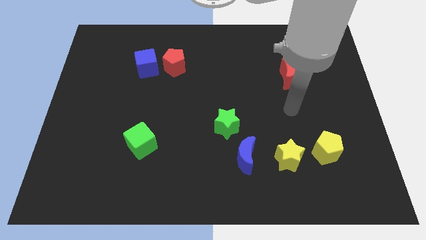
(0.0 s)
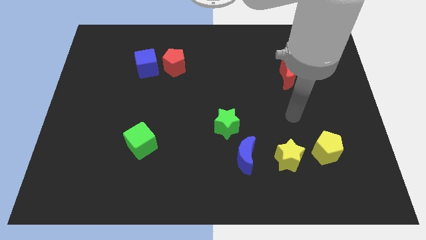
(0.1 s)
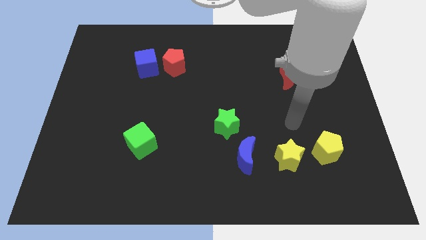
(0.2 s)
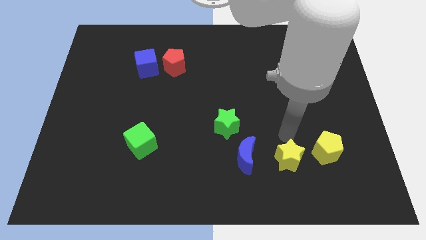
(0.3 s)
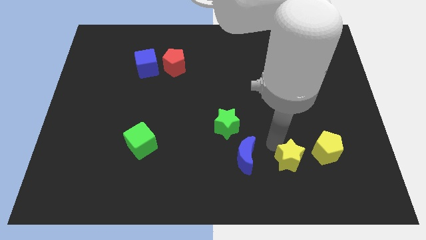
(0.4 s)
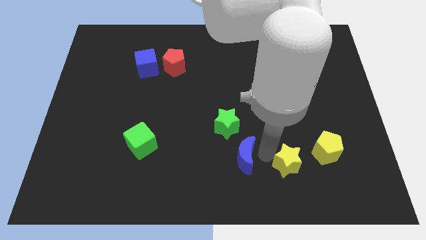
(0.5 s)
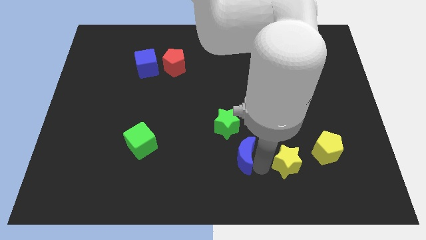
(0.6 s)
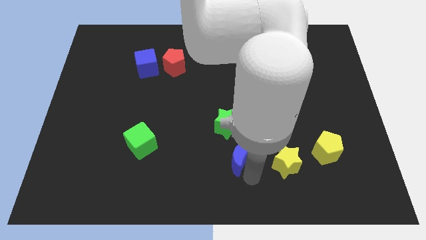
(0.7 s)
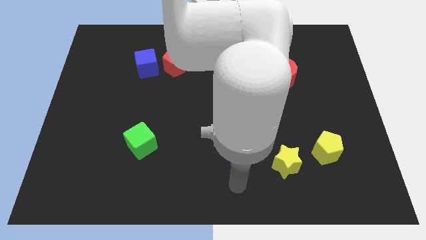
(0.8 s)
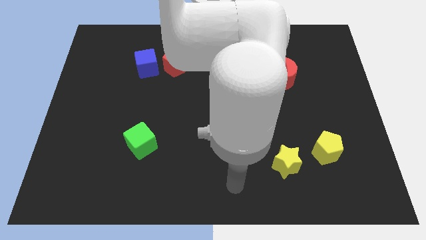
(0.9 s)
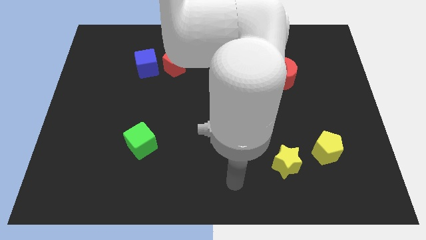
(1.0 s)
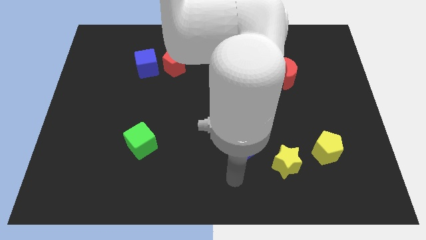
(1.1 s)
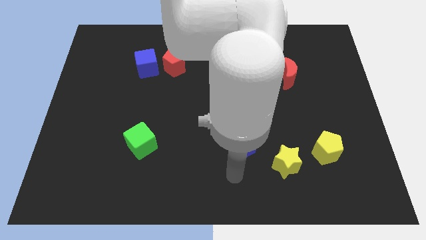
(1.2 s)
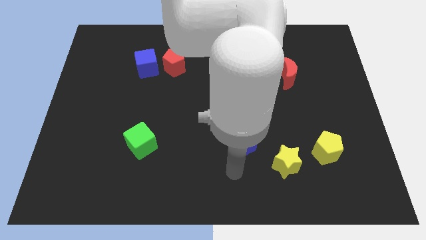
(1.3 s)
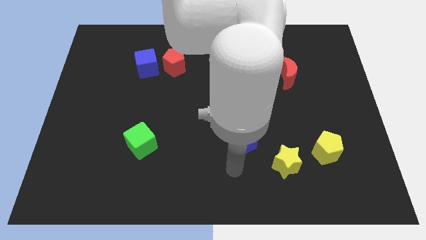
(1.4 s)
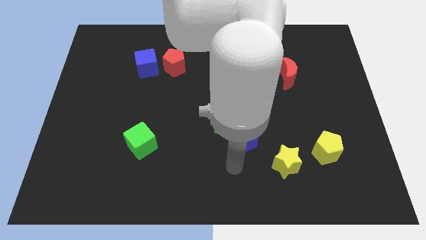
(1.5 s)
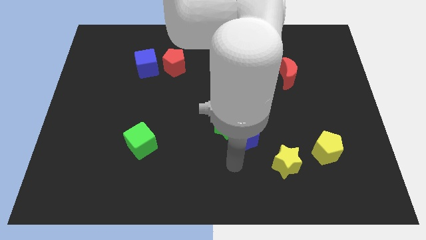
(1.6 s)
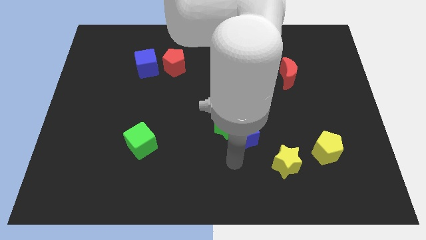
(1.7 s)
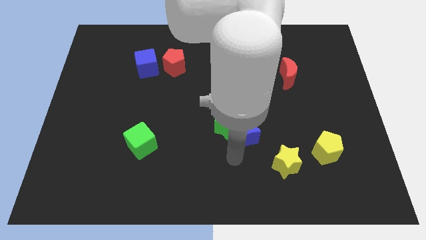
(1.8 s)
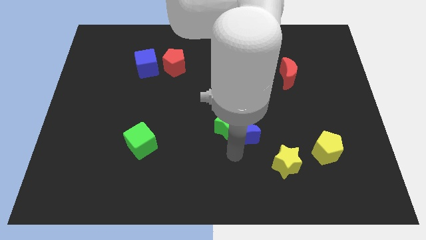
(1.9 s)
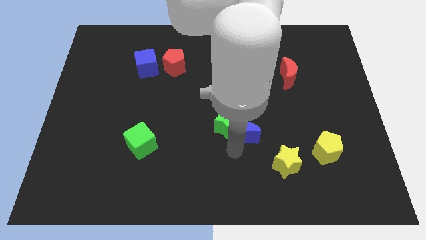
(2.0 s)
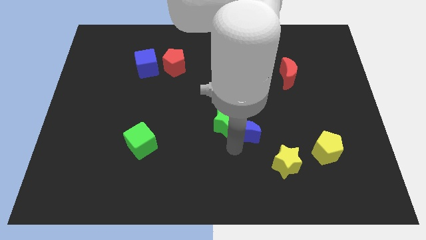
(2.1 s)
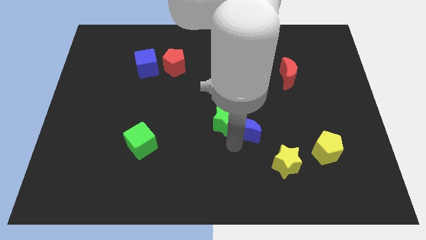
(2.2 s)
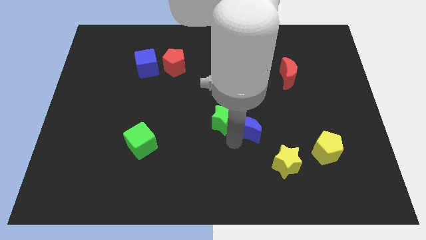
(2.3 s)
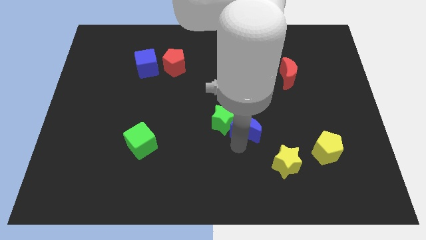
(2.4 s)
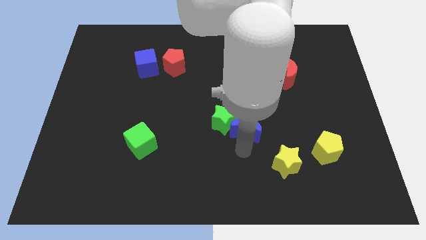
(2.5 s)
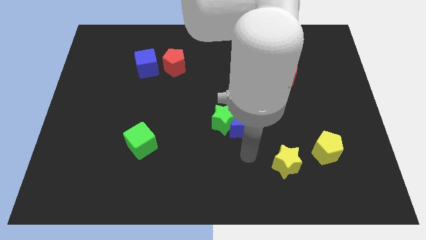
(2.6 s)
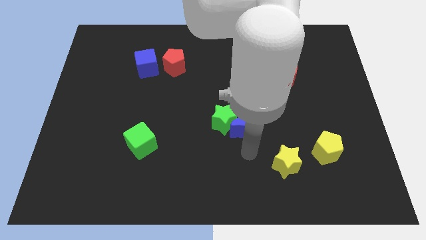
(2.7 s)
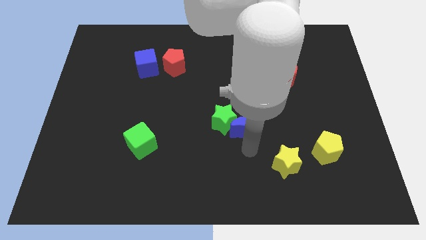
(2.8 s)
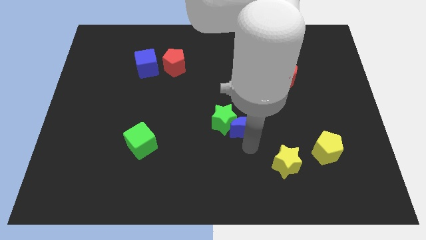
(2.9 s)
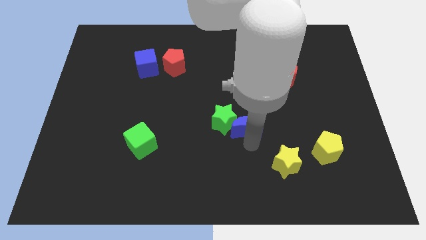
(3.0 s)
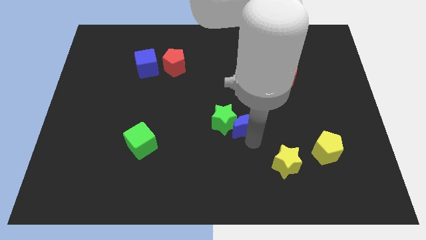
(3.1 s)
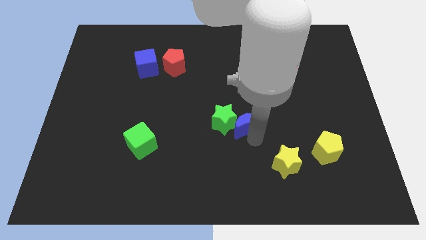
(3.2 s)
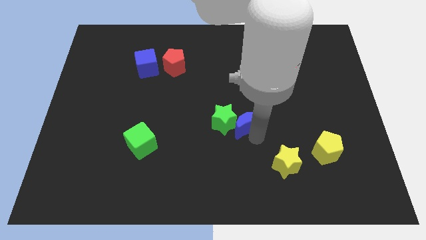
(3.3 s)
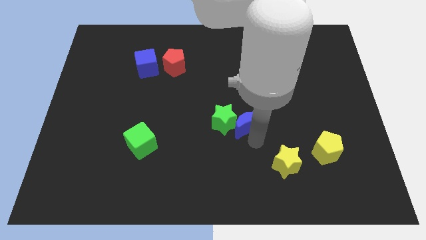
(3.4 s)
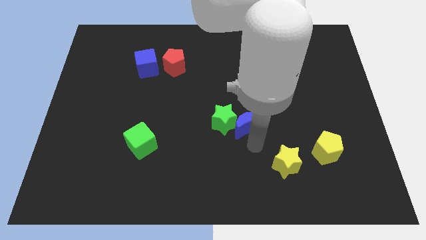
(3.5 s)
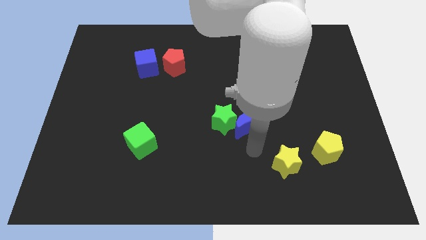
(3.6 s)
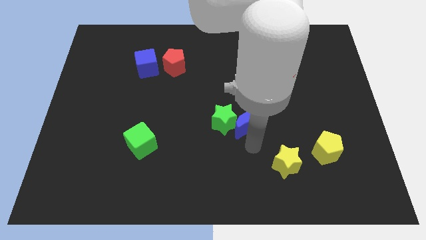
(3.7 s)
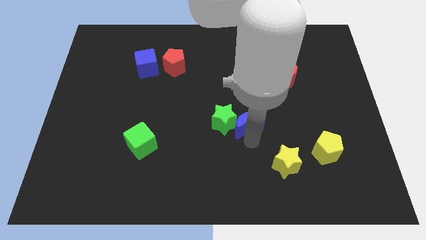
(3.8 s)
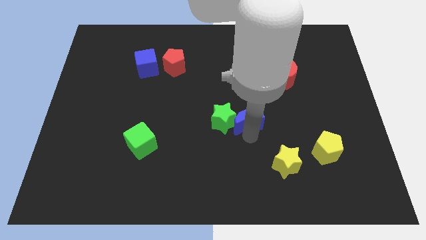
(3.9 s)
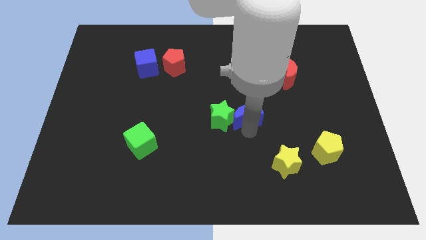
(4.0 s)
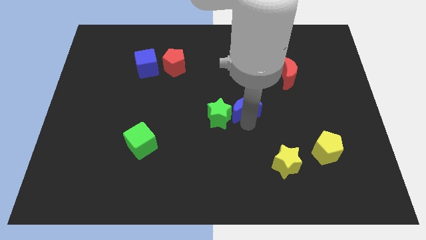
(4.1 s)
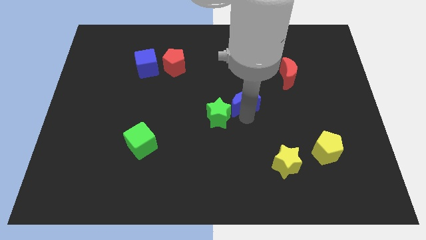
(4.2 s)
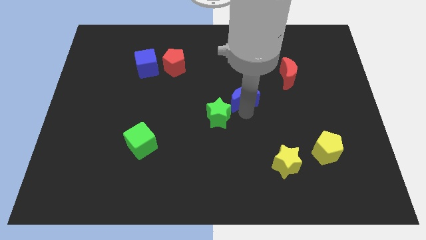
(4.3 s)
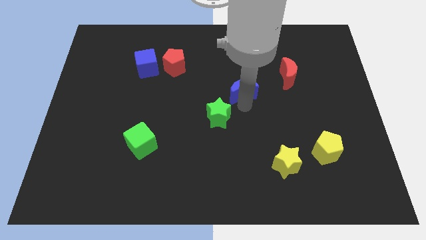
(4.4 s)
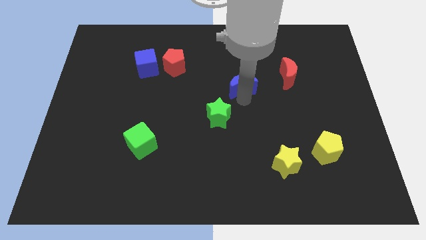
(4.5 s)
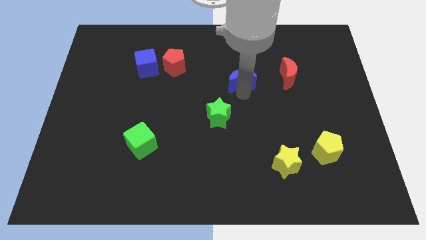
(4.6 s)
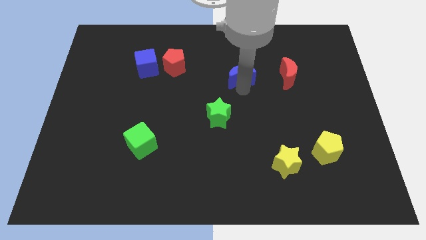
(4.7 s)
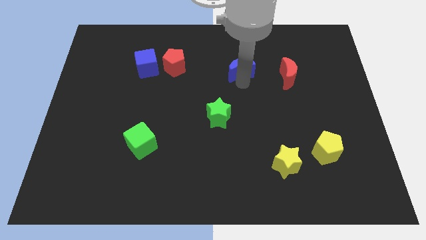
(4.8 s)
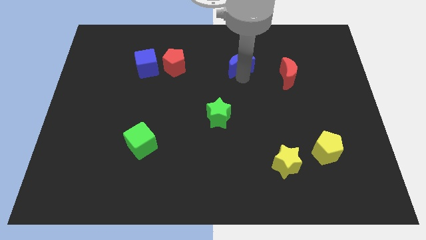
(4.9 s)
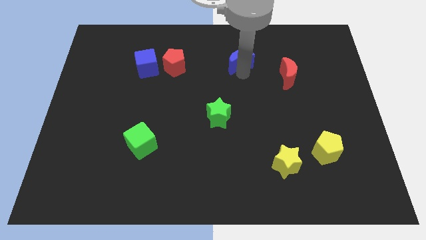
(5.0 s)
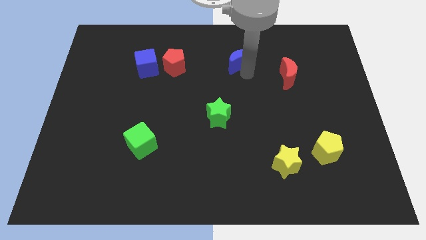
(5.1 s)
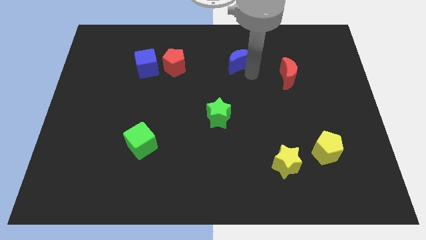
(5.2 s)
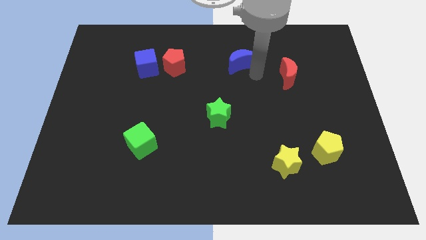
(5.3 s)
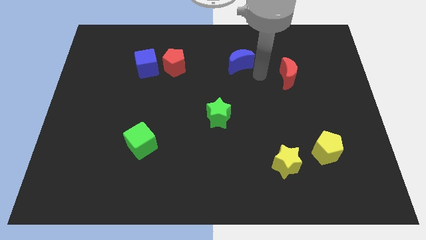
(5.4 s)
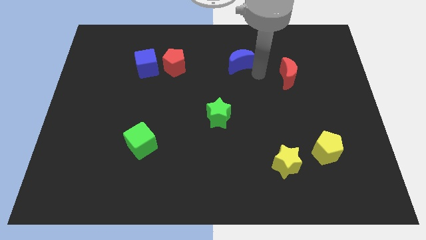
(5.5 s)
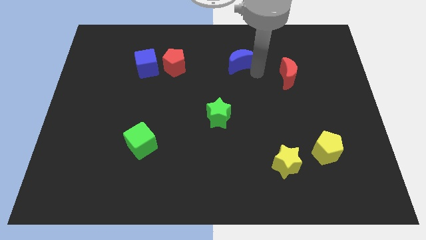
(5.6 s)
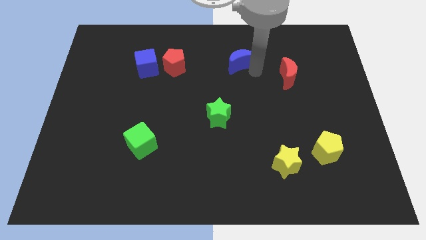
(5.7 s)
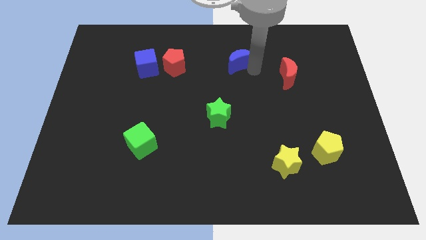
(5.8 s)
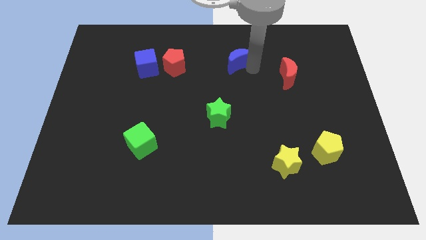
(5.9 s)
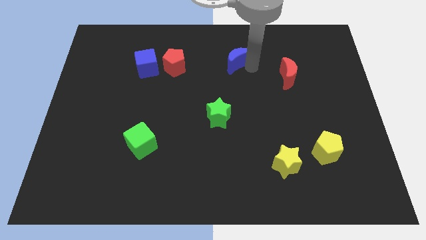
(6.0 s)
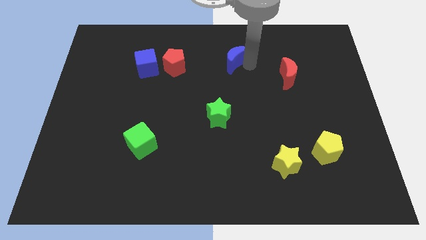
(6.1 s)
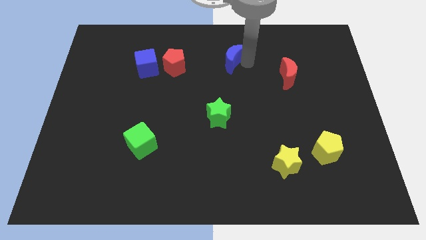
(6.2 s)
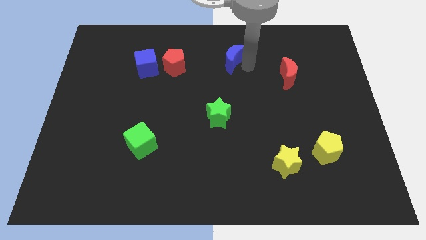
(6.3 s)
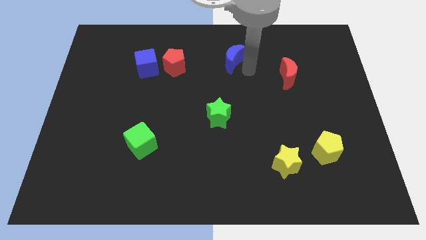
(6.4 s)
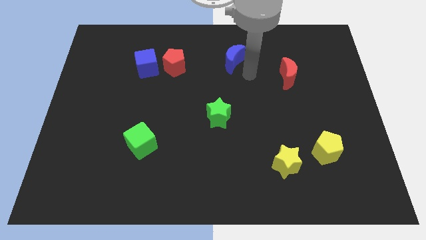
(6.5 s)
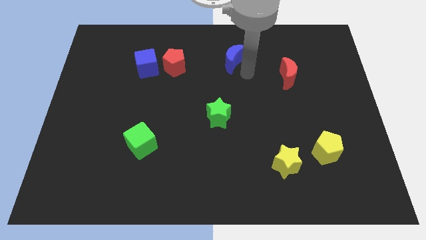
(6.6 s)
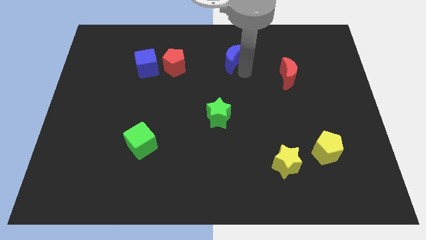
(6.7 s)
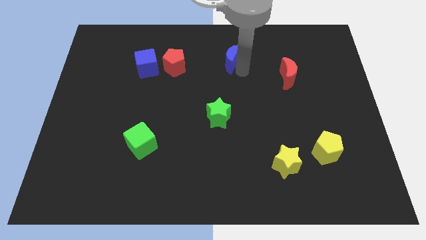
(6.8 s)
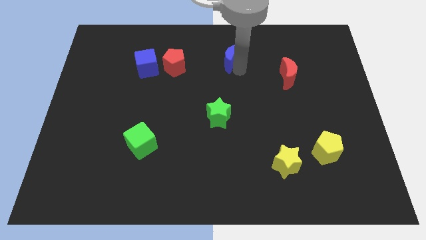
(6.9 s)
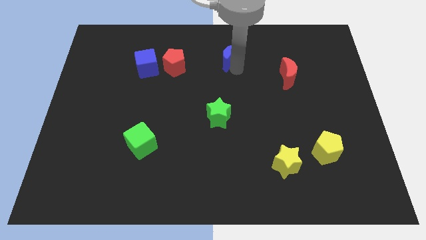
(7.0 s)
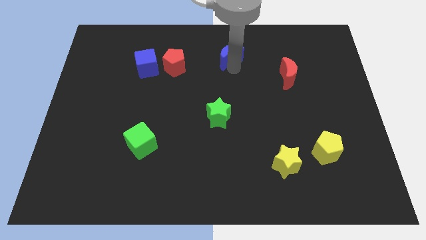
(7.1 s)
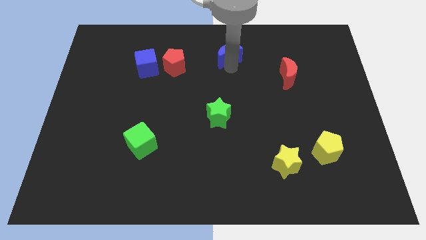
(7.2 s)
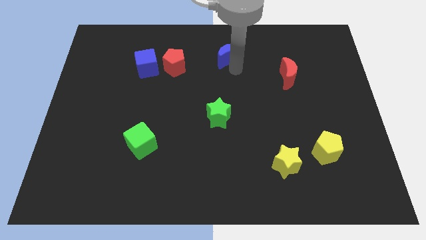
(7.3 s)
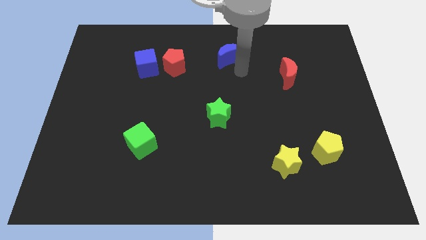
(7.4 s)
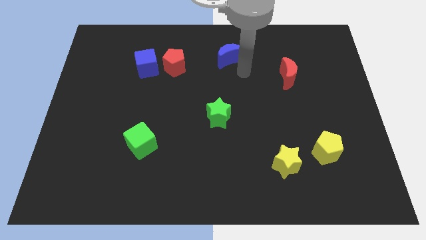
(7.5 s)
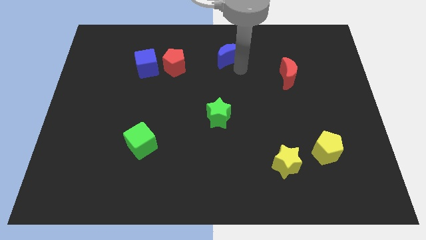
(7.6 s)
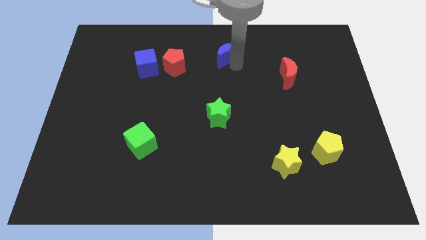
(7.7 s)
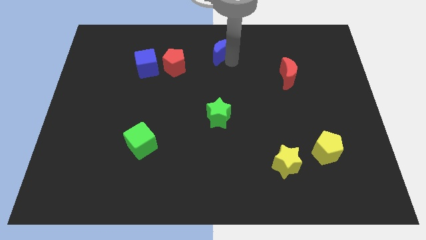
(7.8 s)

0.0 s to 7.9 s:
put the blue moon to the top
